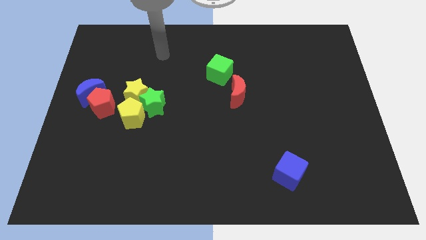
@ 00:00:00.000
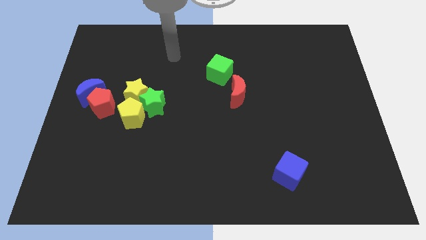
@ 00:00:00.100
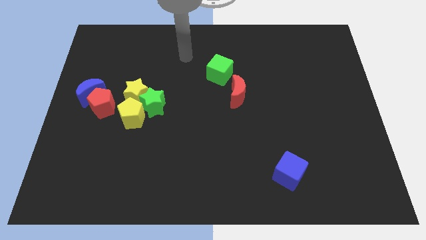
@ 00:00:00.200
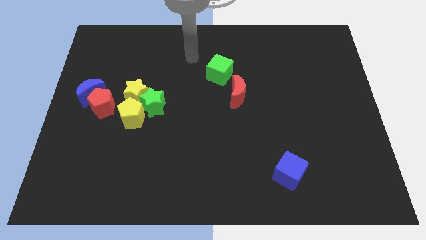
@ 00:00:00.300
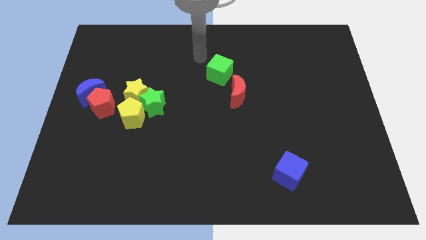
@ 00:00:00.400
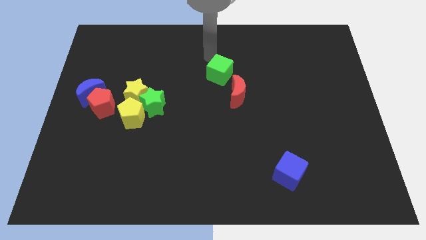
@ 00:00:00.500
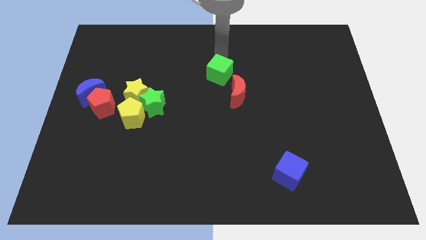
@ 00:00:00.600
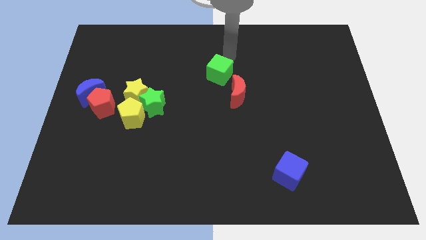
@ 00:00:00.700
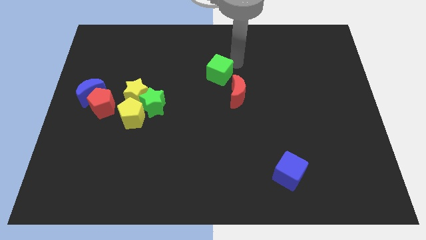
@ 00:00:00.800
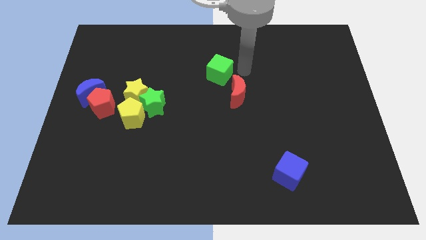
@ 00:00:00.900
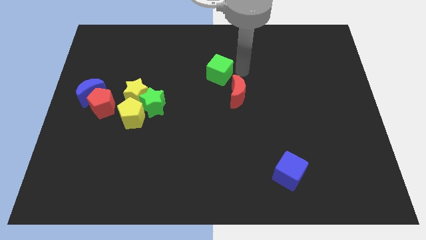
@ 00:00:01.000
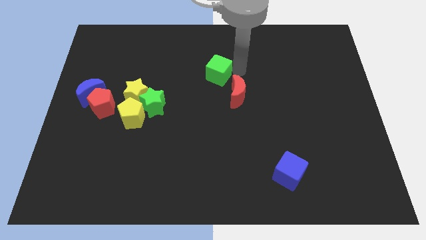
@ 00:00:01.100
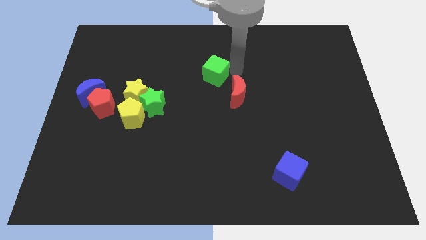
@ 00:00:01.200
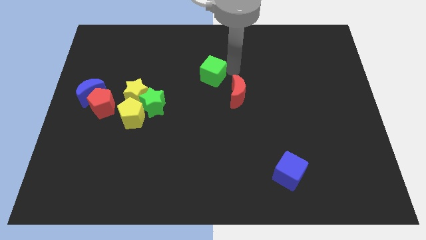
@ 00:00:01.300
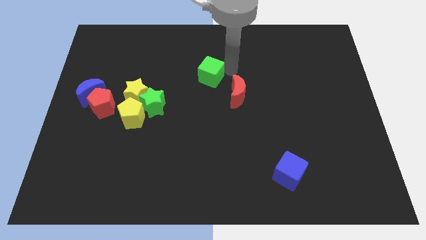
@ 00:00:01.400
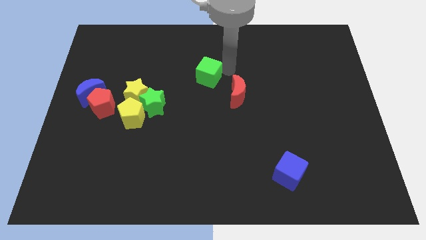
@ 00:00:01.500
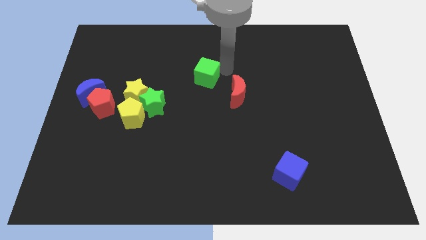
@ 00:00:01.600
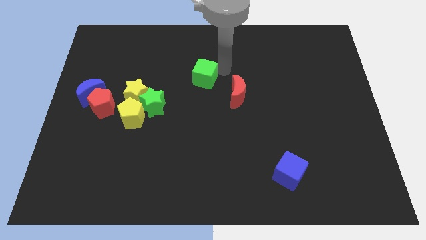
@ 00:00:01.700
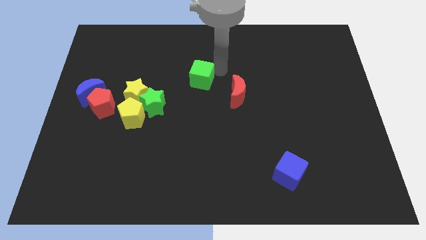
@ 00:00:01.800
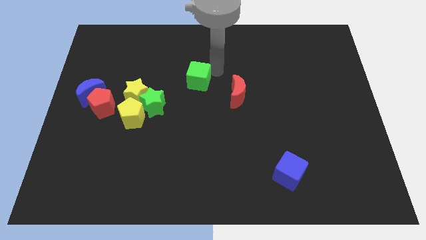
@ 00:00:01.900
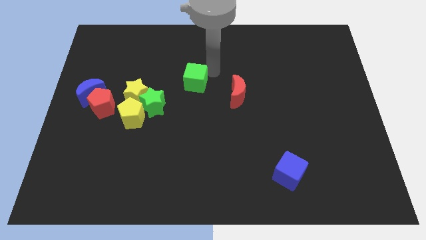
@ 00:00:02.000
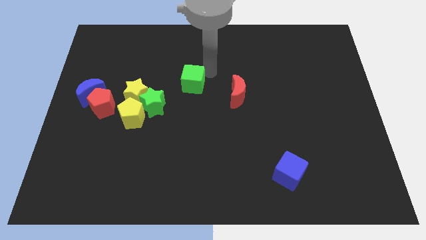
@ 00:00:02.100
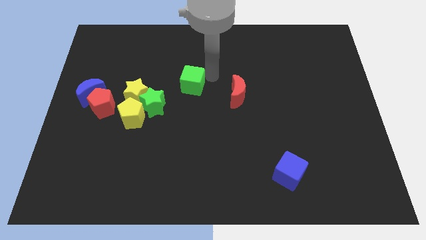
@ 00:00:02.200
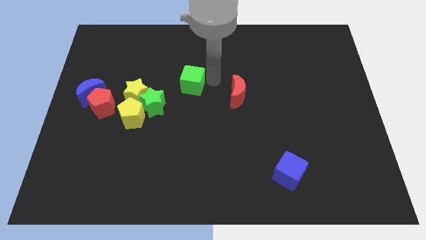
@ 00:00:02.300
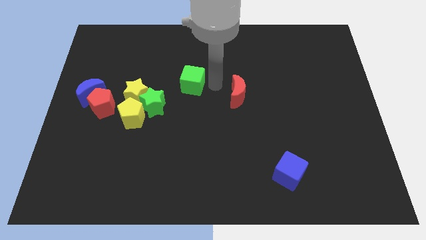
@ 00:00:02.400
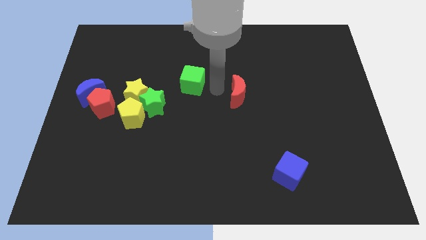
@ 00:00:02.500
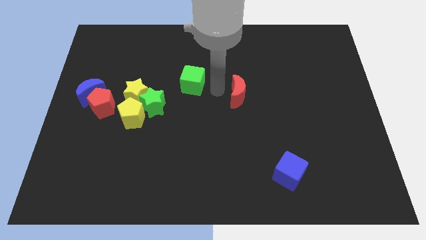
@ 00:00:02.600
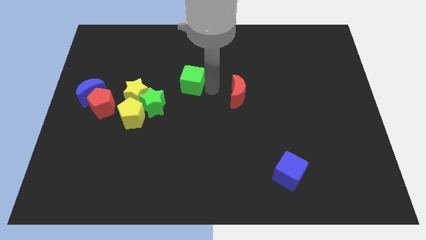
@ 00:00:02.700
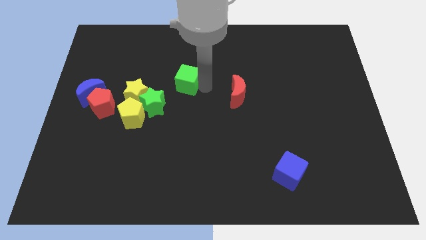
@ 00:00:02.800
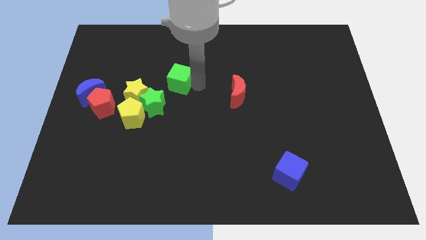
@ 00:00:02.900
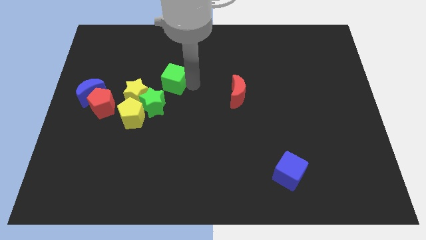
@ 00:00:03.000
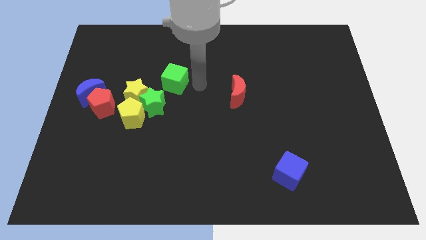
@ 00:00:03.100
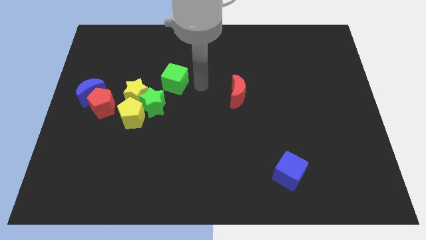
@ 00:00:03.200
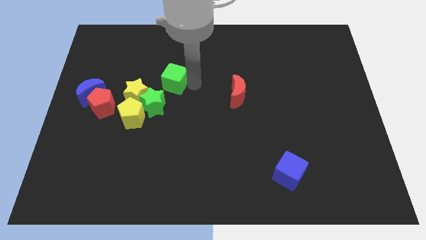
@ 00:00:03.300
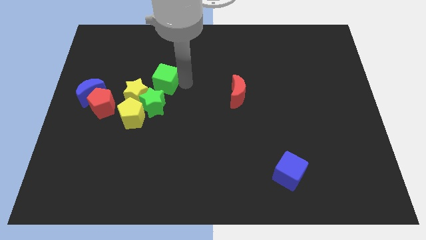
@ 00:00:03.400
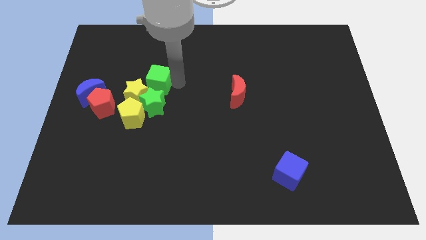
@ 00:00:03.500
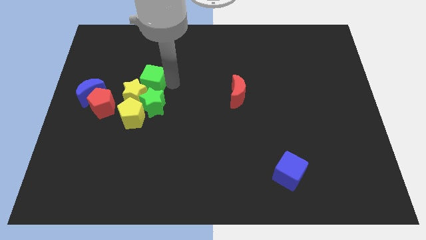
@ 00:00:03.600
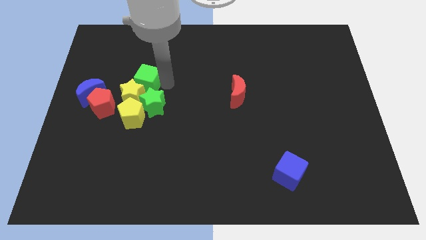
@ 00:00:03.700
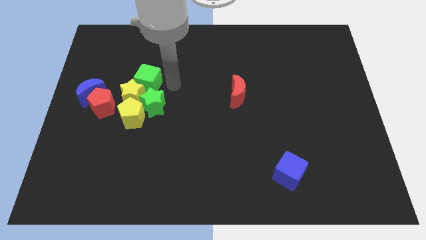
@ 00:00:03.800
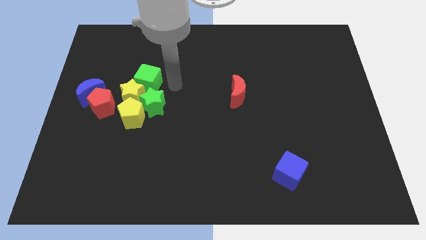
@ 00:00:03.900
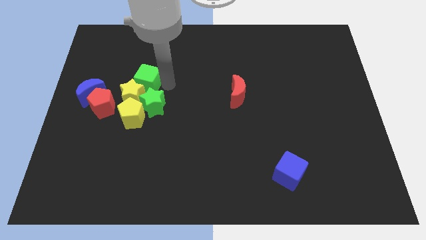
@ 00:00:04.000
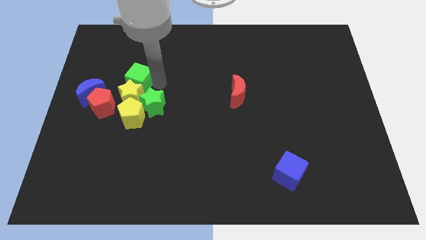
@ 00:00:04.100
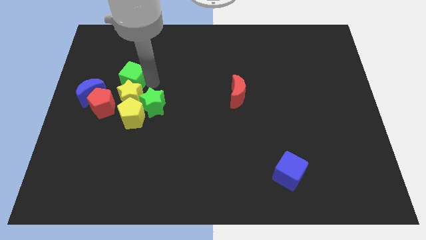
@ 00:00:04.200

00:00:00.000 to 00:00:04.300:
slide the green cube to the top right of the blue moon

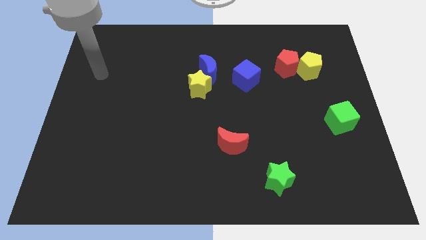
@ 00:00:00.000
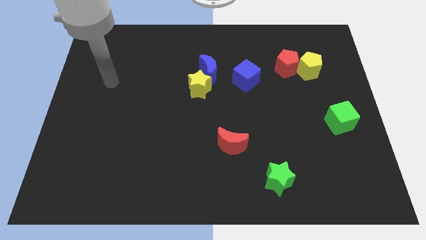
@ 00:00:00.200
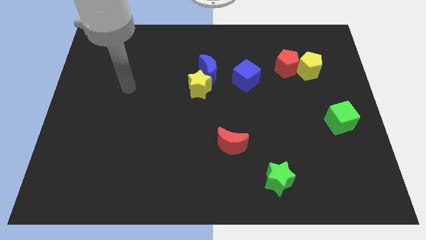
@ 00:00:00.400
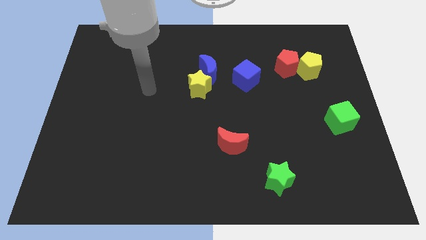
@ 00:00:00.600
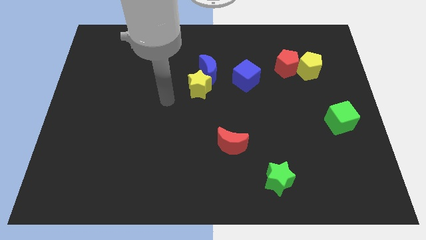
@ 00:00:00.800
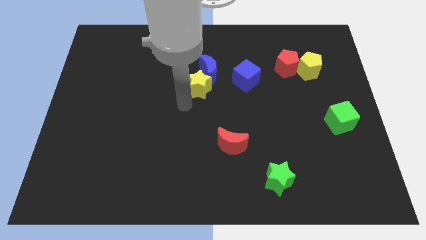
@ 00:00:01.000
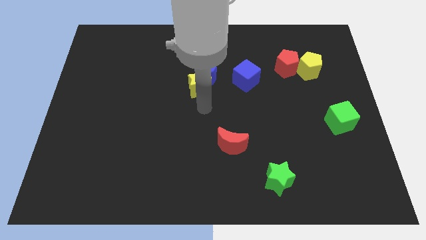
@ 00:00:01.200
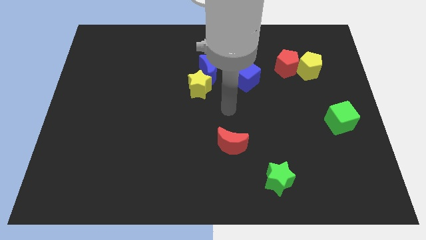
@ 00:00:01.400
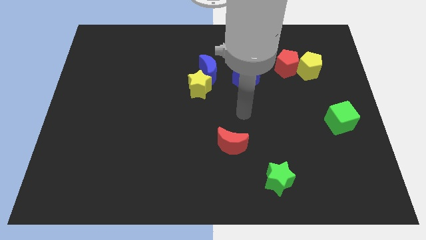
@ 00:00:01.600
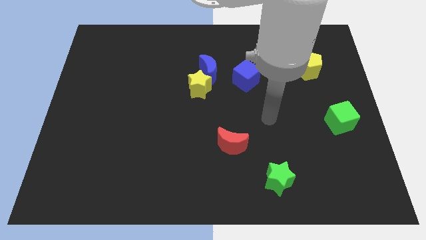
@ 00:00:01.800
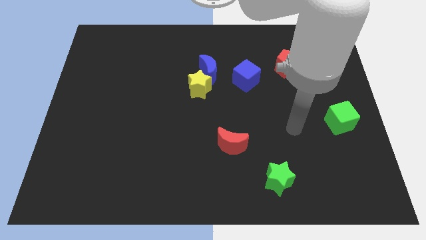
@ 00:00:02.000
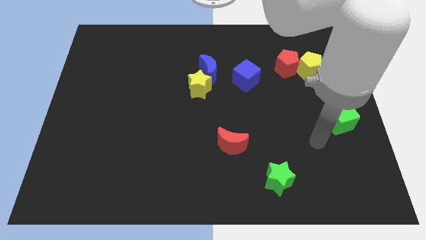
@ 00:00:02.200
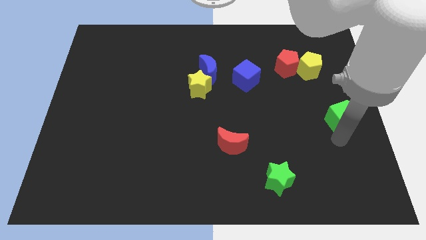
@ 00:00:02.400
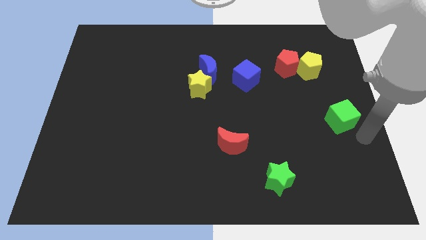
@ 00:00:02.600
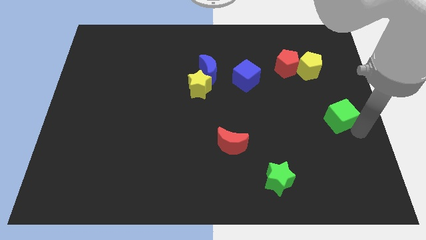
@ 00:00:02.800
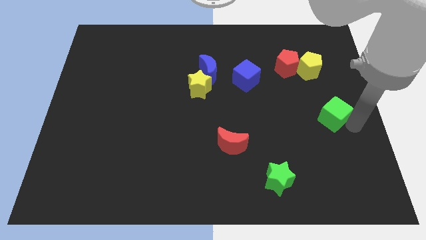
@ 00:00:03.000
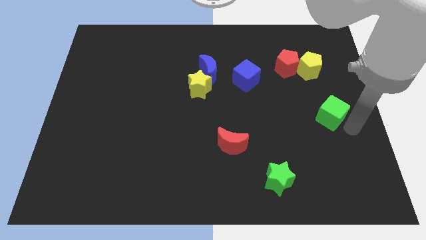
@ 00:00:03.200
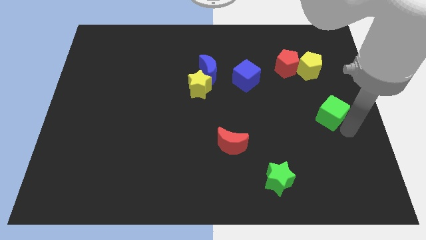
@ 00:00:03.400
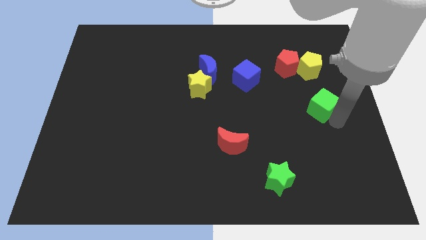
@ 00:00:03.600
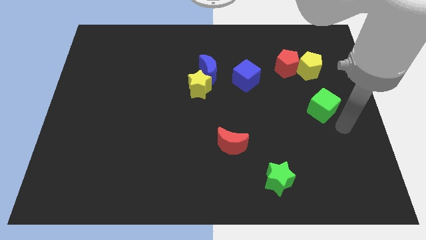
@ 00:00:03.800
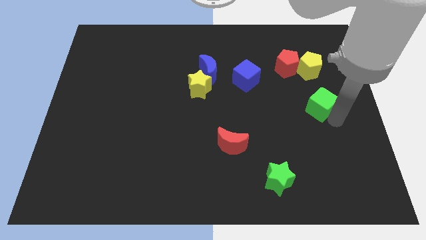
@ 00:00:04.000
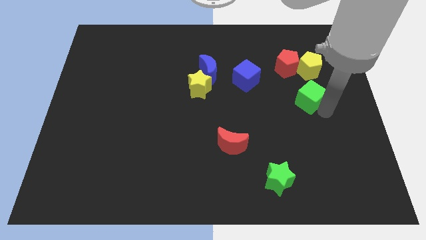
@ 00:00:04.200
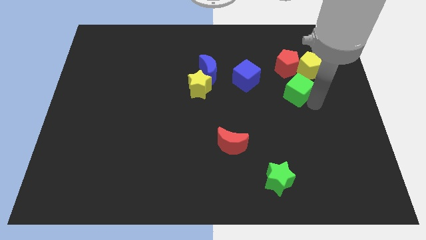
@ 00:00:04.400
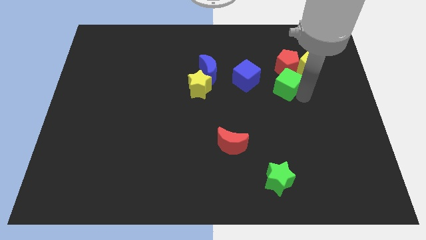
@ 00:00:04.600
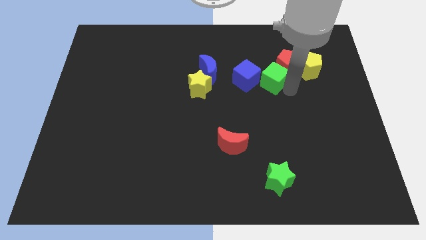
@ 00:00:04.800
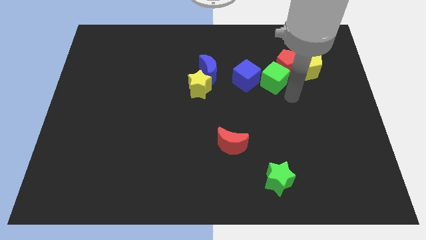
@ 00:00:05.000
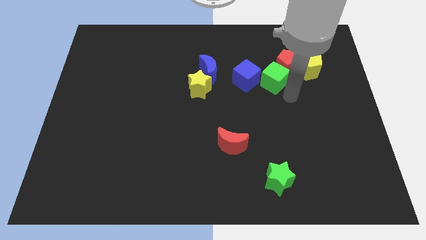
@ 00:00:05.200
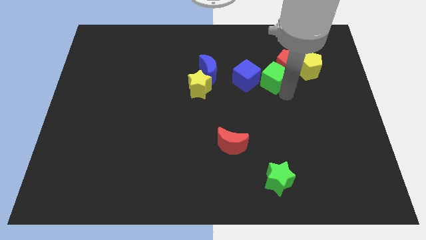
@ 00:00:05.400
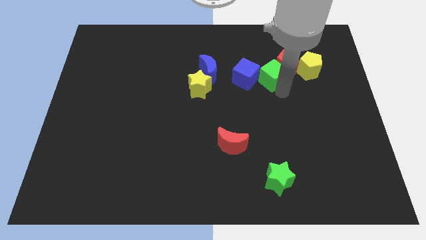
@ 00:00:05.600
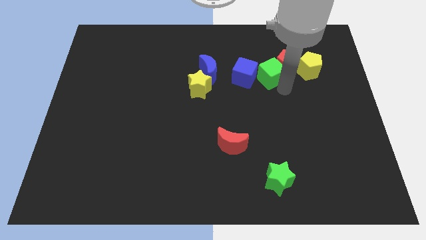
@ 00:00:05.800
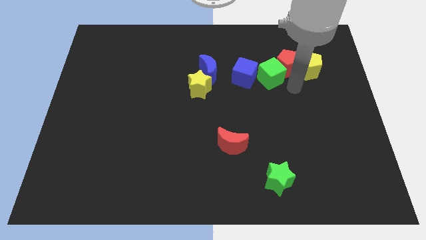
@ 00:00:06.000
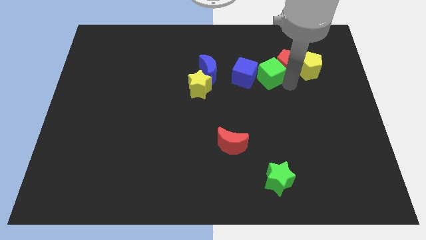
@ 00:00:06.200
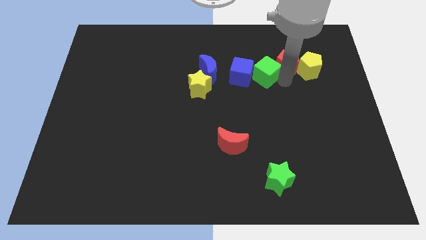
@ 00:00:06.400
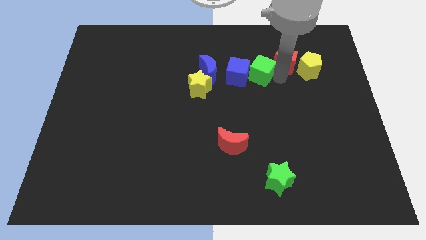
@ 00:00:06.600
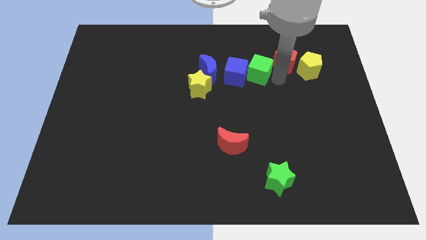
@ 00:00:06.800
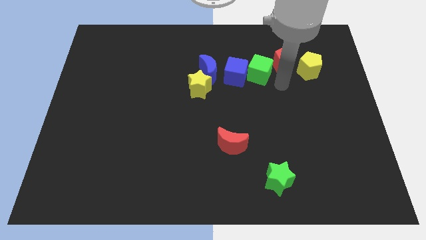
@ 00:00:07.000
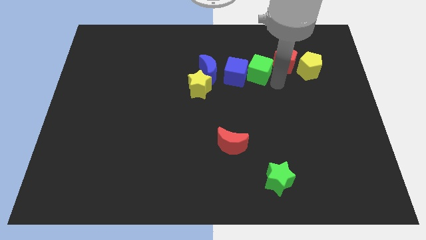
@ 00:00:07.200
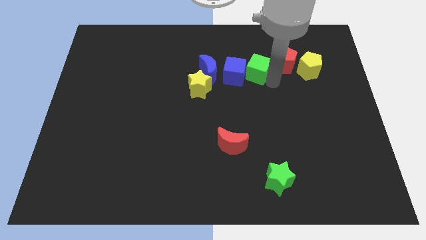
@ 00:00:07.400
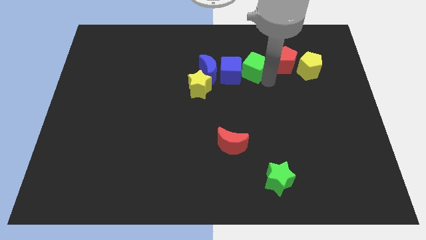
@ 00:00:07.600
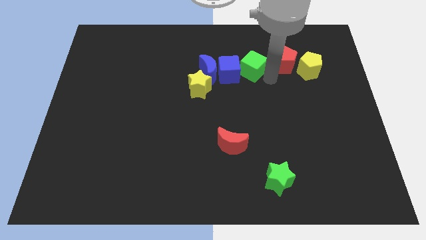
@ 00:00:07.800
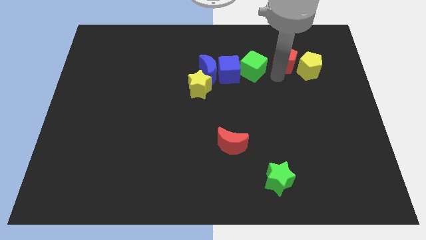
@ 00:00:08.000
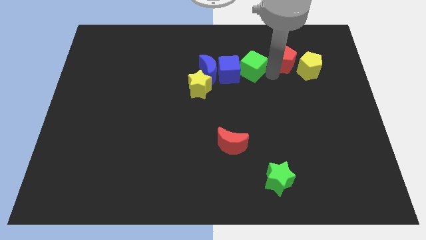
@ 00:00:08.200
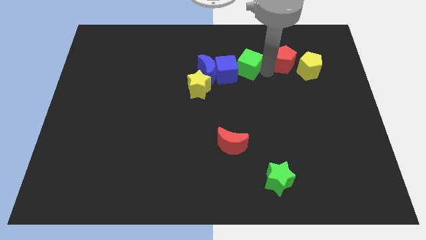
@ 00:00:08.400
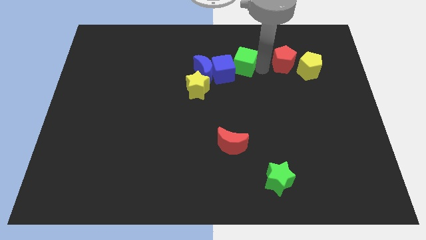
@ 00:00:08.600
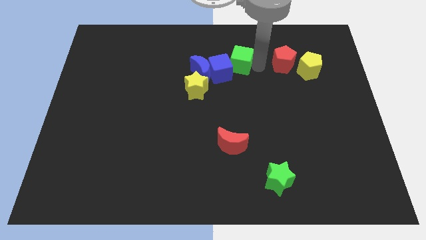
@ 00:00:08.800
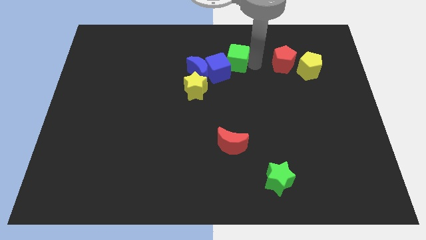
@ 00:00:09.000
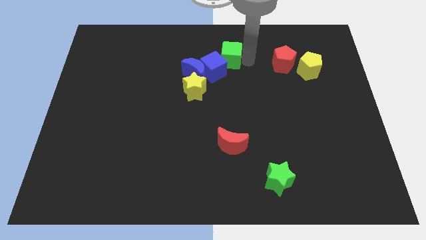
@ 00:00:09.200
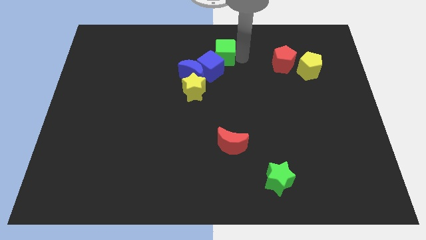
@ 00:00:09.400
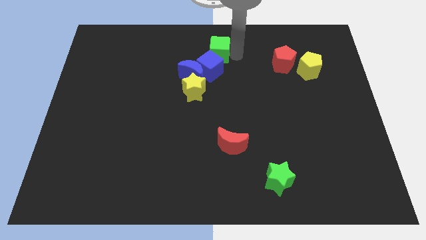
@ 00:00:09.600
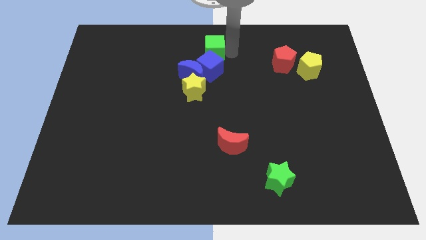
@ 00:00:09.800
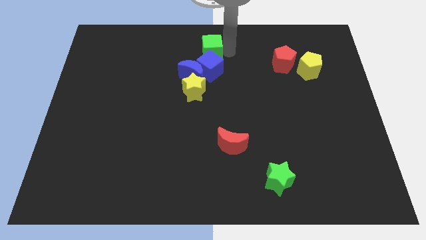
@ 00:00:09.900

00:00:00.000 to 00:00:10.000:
put the green cube to the top side of the yellow star
